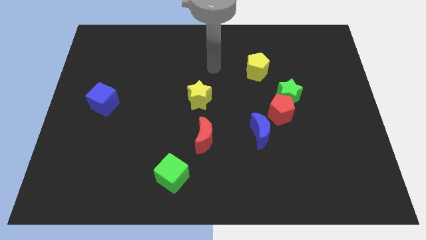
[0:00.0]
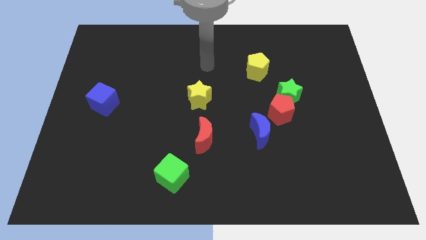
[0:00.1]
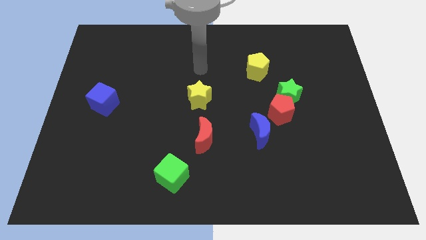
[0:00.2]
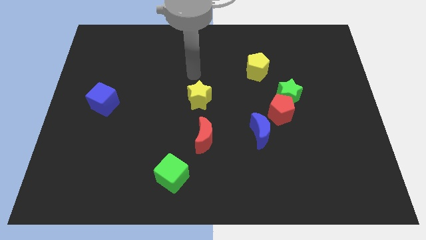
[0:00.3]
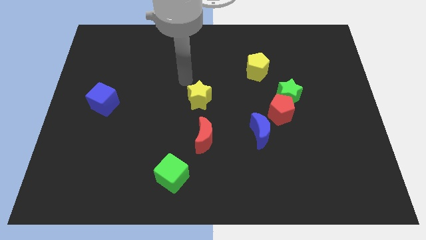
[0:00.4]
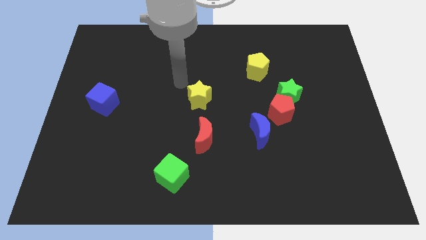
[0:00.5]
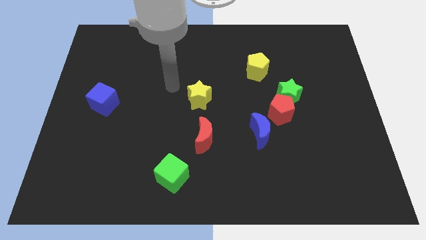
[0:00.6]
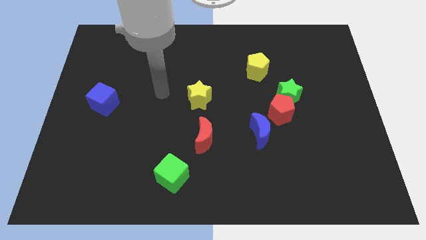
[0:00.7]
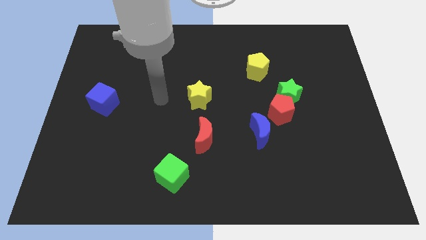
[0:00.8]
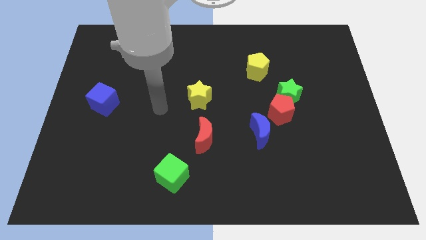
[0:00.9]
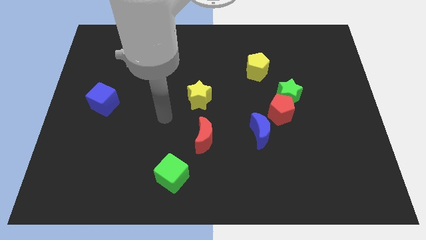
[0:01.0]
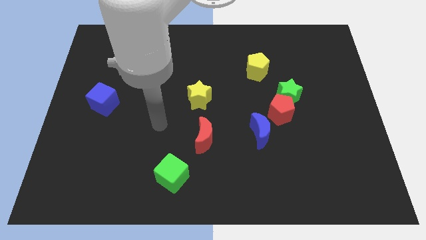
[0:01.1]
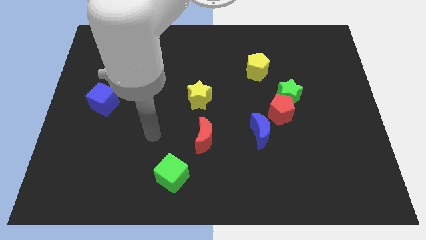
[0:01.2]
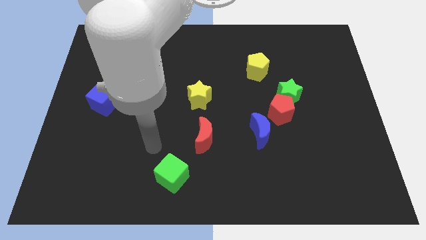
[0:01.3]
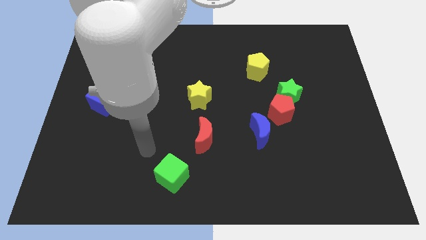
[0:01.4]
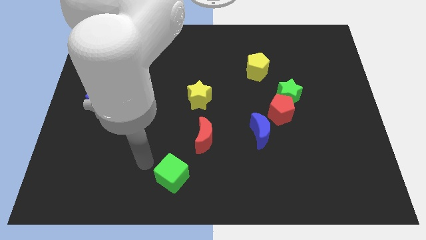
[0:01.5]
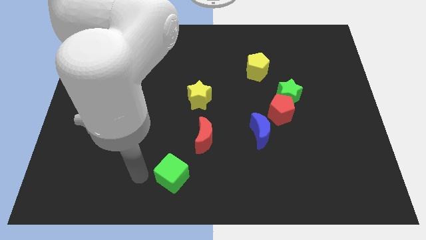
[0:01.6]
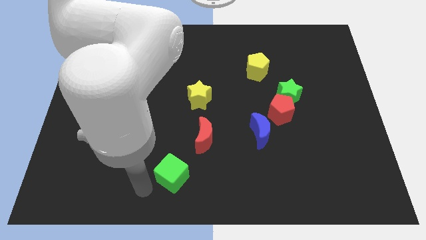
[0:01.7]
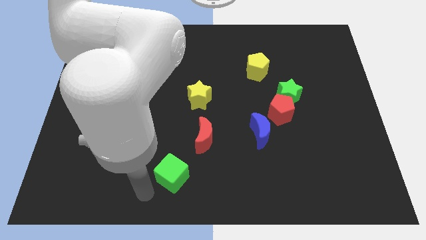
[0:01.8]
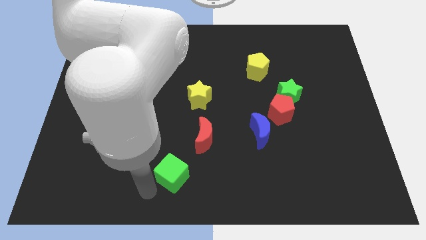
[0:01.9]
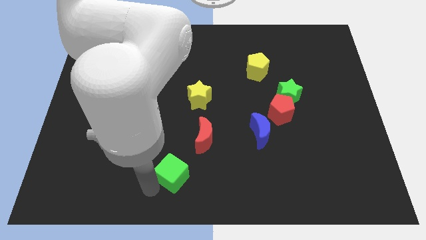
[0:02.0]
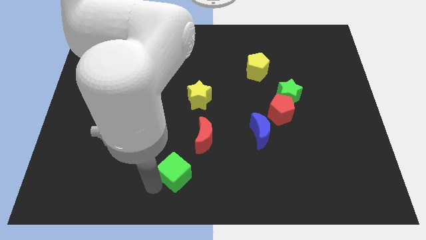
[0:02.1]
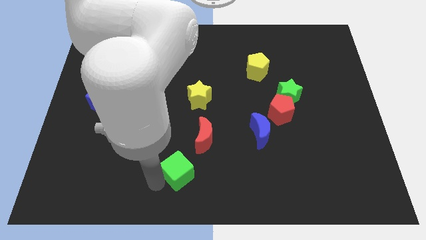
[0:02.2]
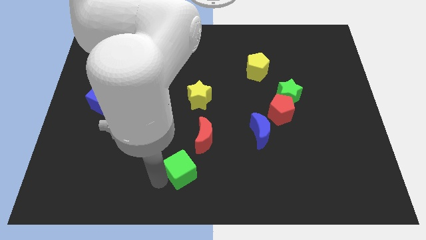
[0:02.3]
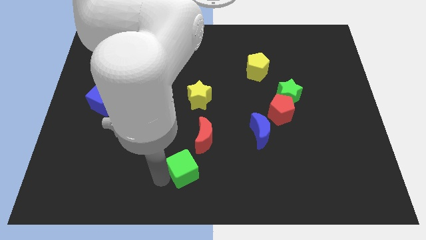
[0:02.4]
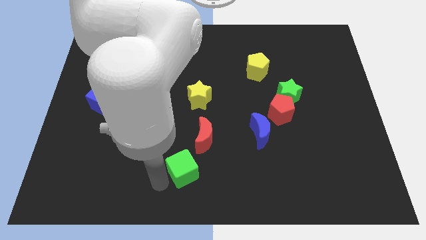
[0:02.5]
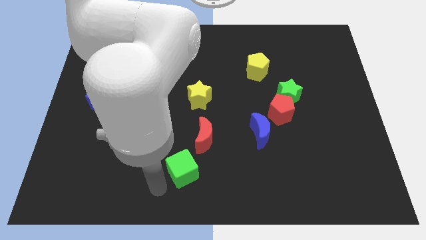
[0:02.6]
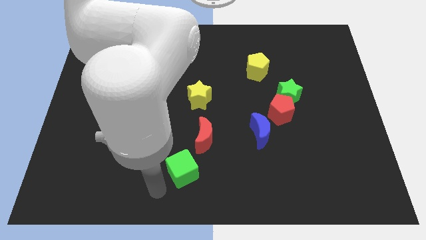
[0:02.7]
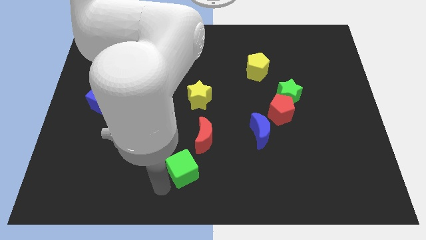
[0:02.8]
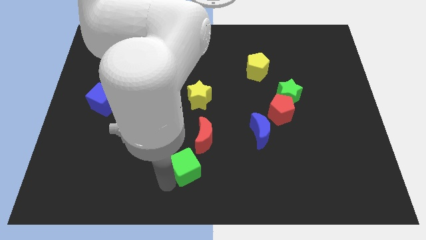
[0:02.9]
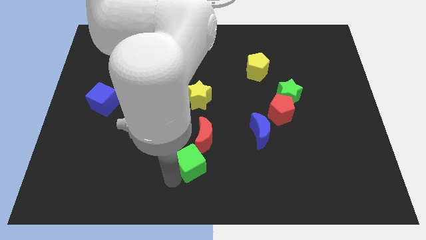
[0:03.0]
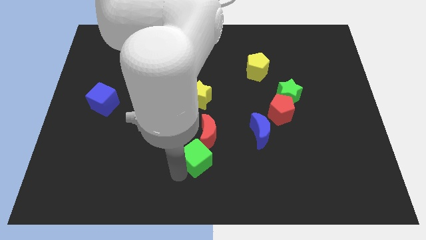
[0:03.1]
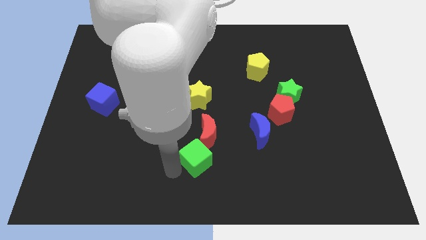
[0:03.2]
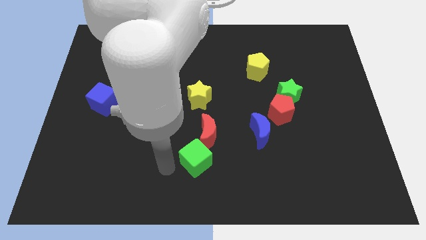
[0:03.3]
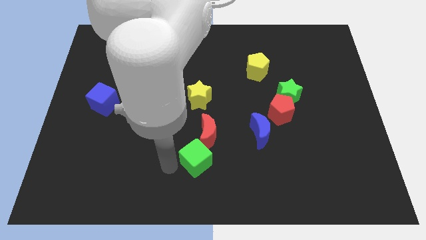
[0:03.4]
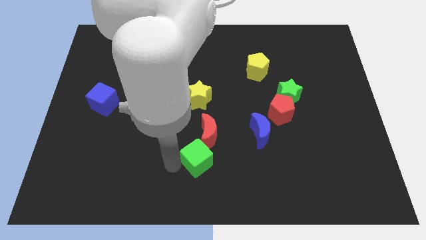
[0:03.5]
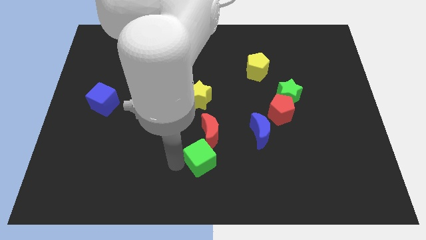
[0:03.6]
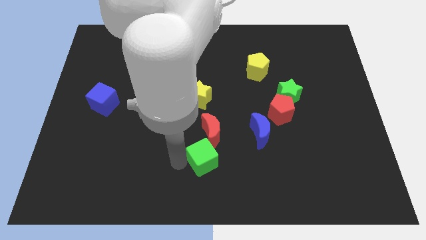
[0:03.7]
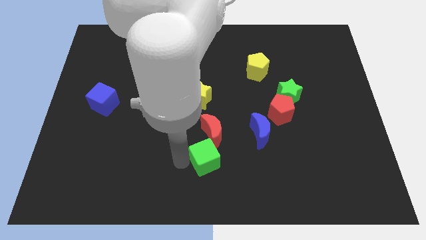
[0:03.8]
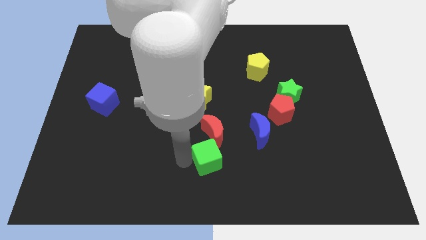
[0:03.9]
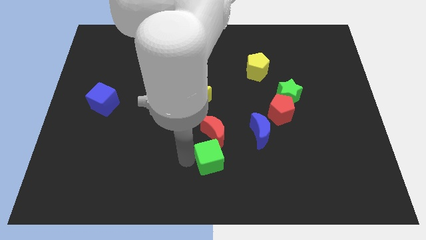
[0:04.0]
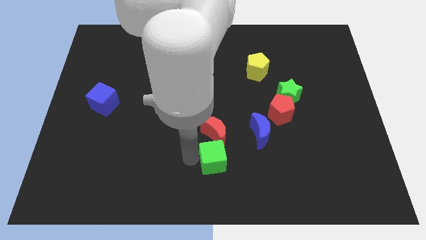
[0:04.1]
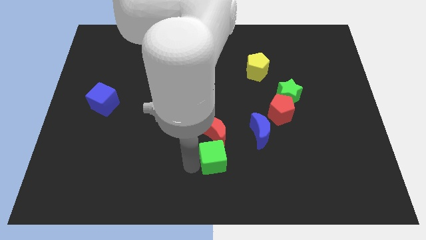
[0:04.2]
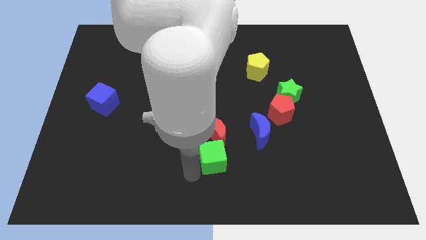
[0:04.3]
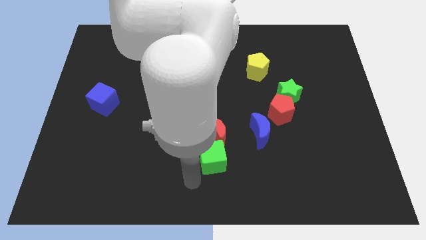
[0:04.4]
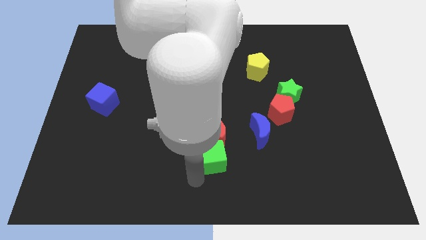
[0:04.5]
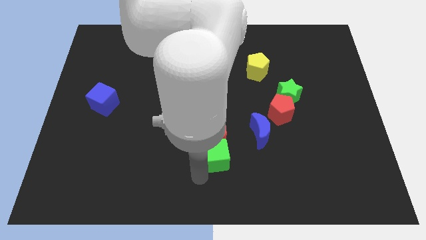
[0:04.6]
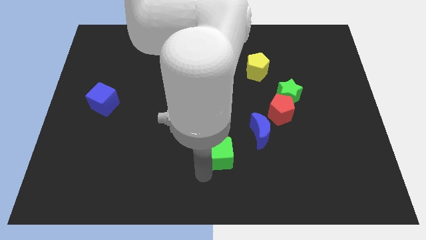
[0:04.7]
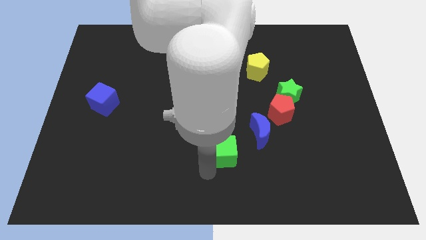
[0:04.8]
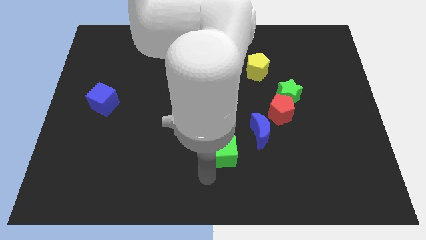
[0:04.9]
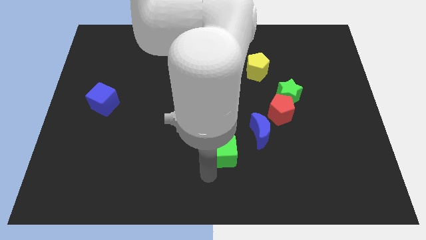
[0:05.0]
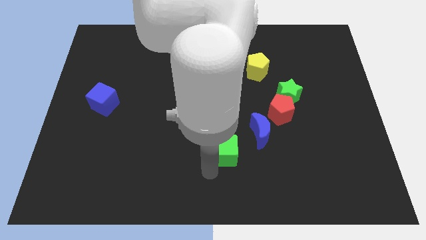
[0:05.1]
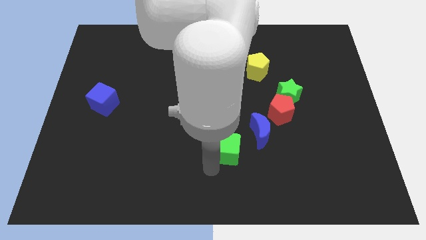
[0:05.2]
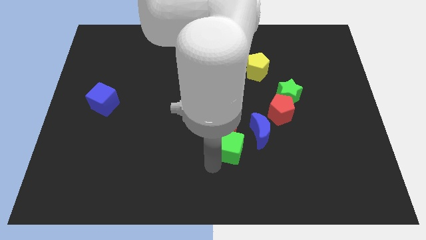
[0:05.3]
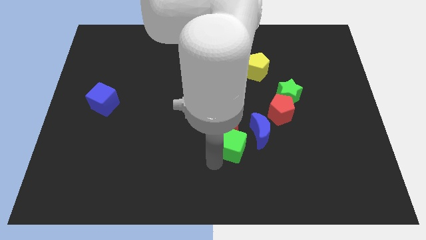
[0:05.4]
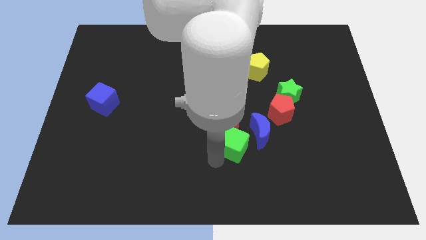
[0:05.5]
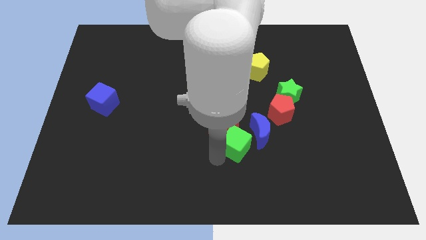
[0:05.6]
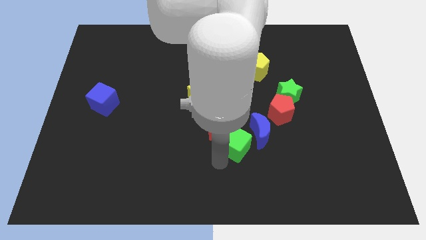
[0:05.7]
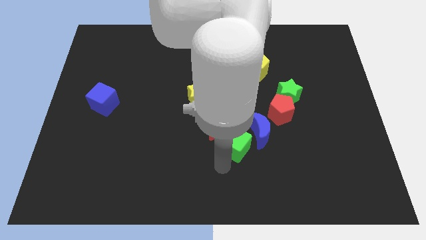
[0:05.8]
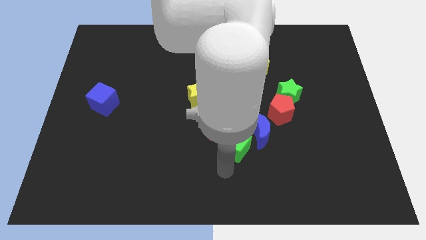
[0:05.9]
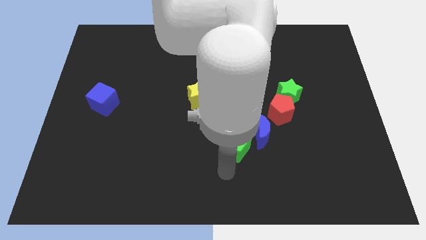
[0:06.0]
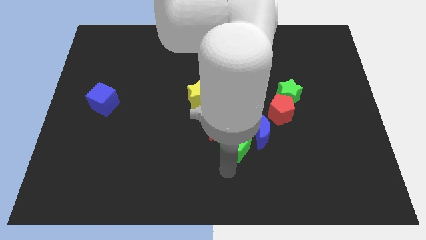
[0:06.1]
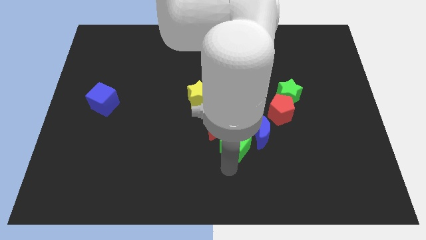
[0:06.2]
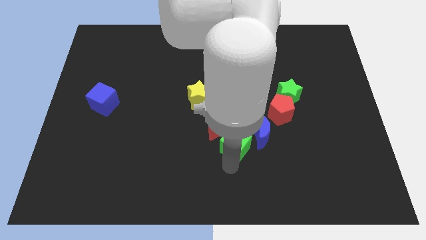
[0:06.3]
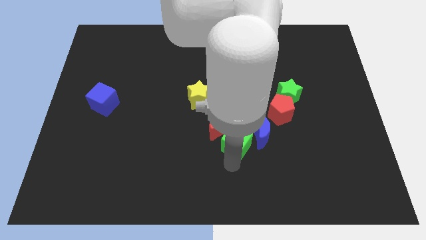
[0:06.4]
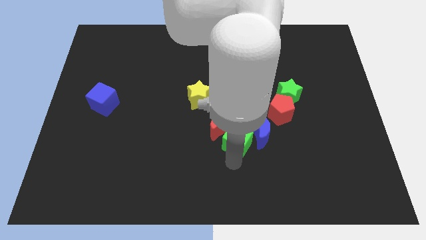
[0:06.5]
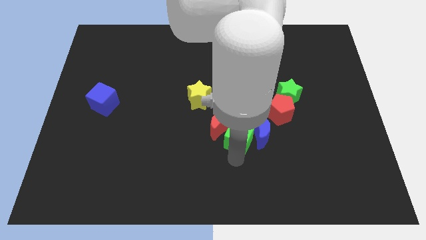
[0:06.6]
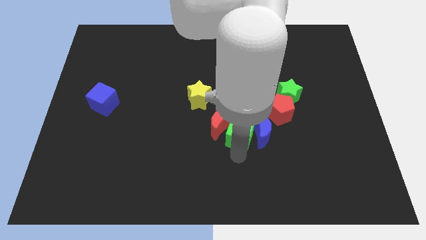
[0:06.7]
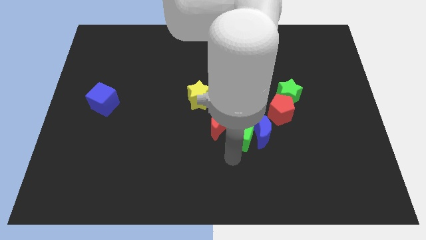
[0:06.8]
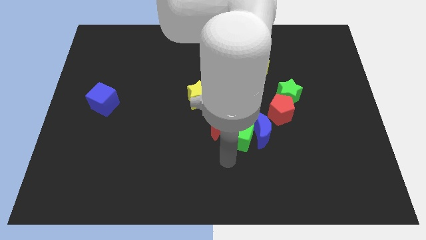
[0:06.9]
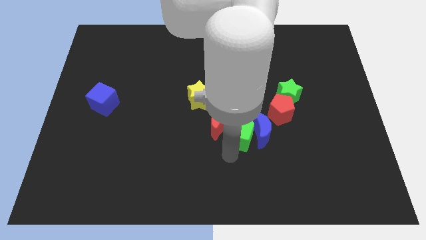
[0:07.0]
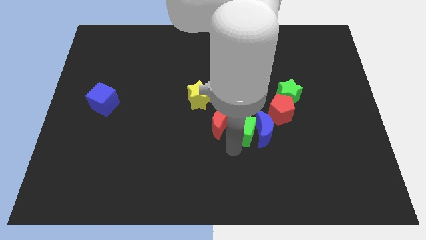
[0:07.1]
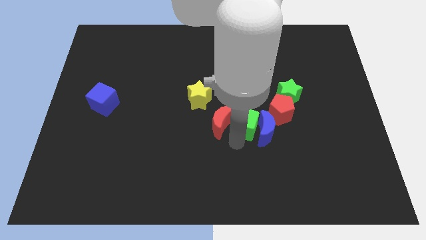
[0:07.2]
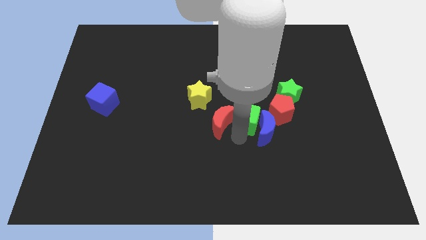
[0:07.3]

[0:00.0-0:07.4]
slide the green cube upwards and to the right

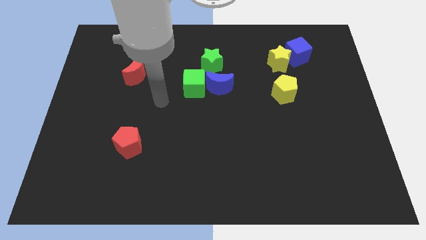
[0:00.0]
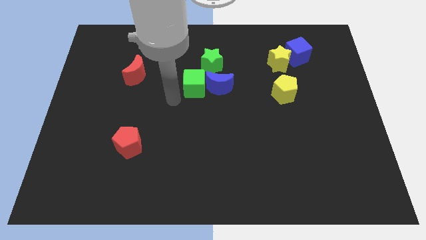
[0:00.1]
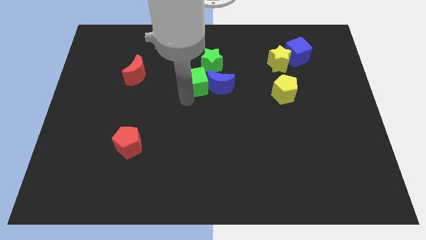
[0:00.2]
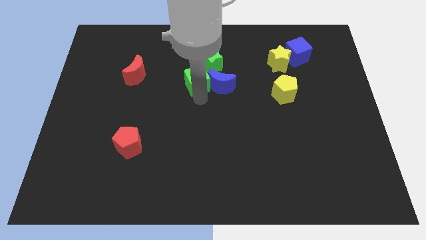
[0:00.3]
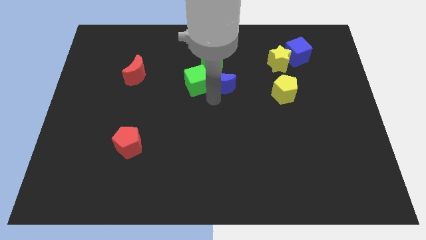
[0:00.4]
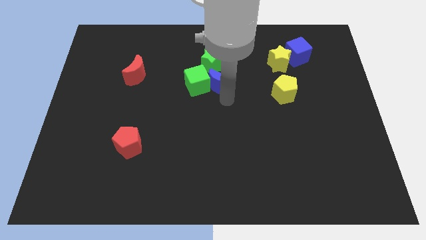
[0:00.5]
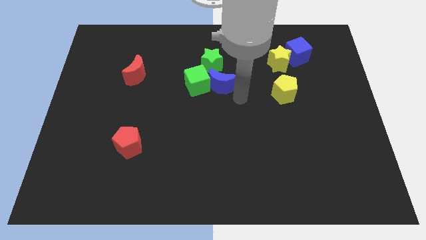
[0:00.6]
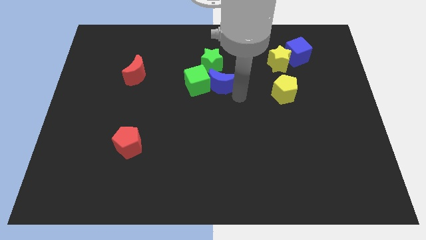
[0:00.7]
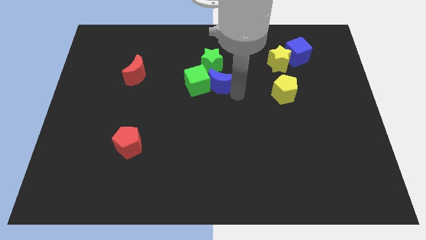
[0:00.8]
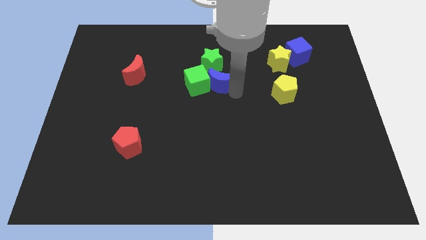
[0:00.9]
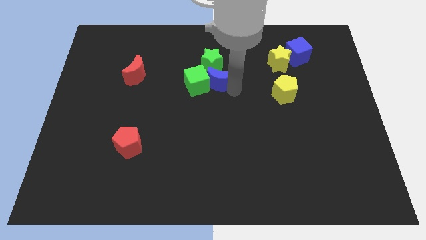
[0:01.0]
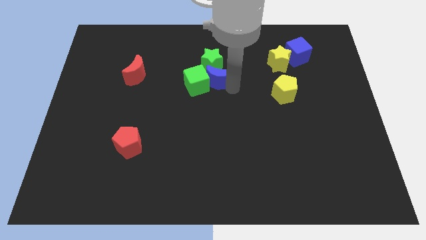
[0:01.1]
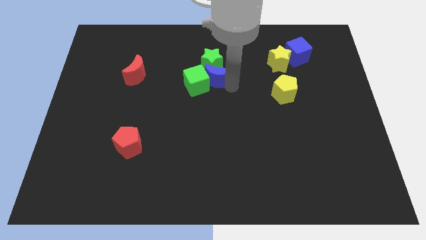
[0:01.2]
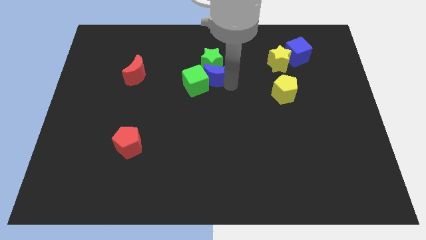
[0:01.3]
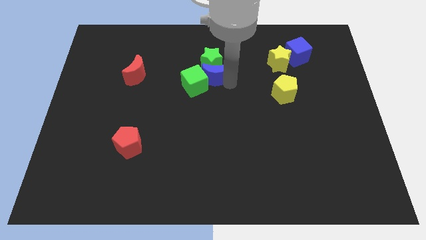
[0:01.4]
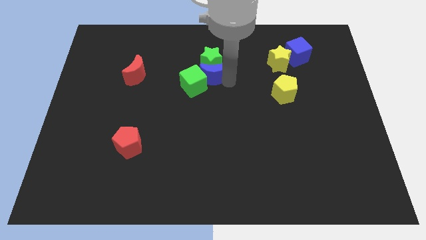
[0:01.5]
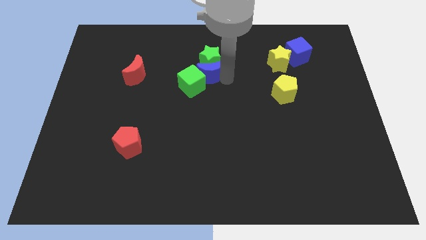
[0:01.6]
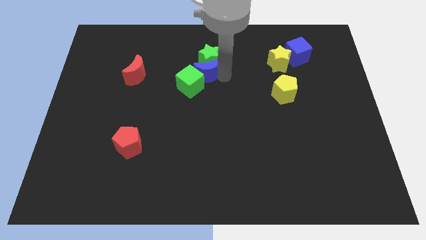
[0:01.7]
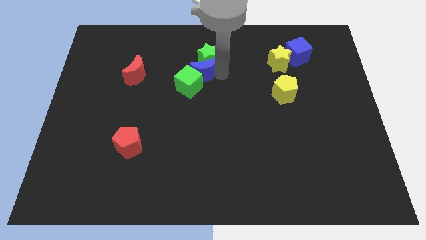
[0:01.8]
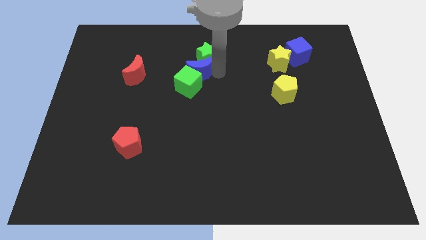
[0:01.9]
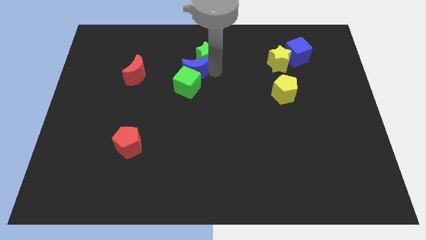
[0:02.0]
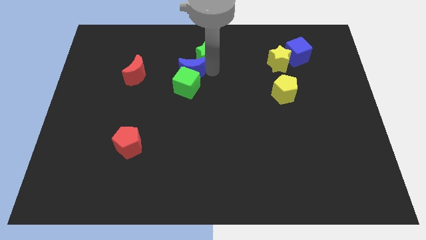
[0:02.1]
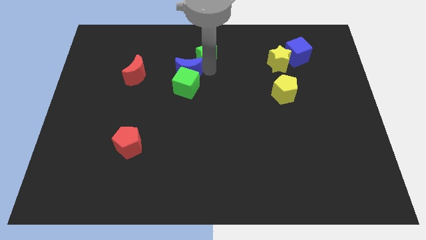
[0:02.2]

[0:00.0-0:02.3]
move the blue moon left slightly
